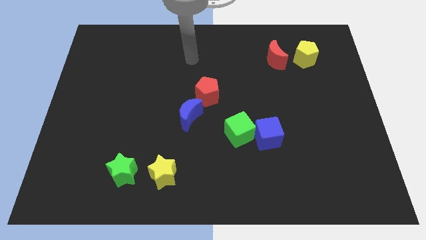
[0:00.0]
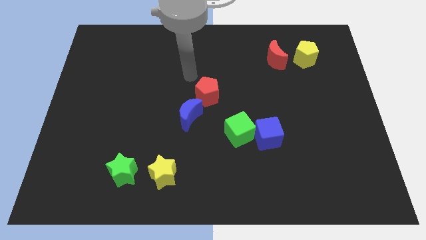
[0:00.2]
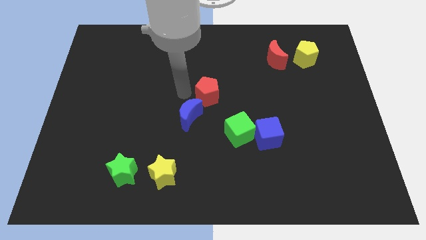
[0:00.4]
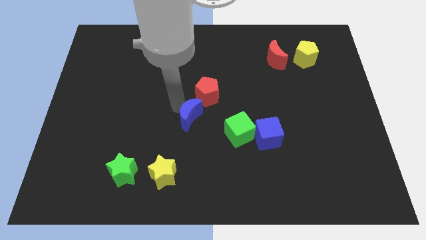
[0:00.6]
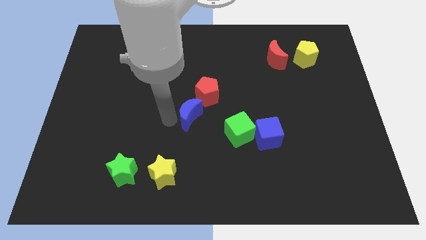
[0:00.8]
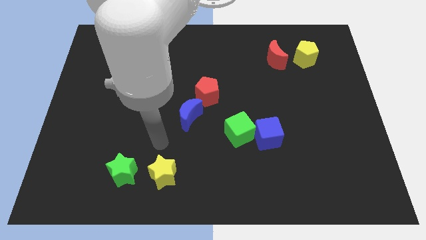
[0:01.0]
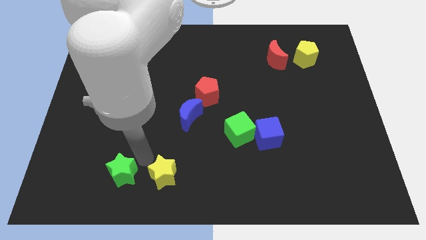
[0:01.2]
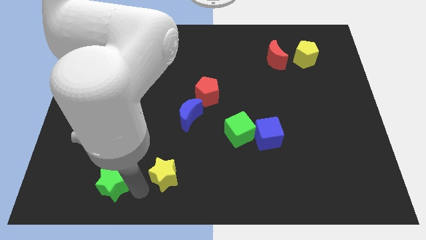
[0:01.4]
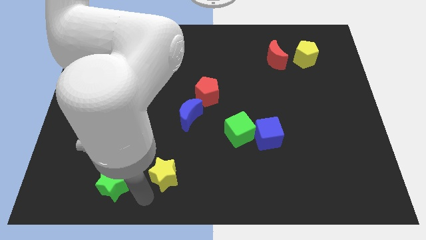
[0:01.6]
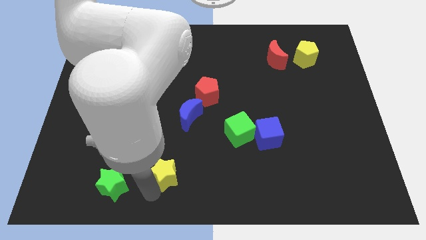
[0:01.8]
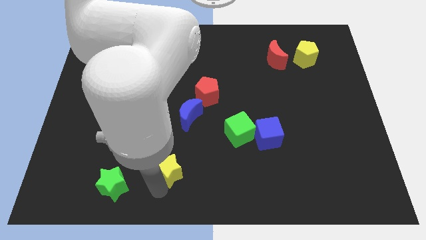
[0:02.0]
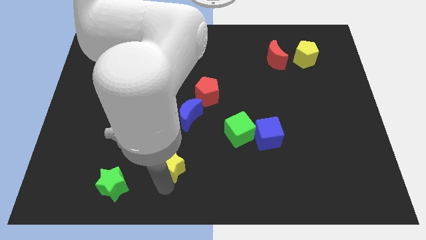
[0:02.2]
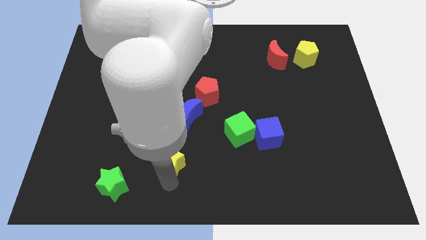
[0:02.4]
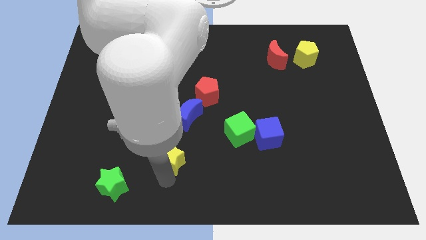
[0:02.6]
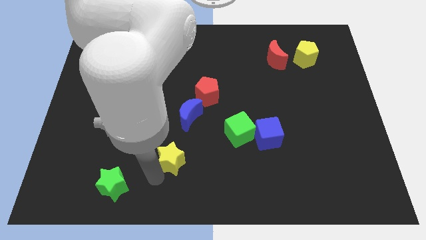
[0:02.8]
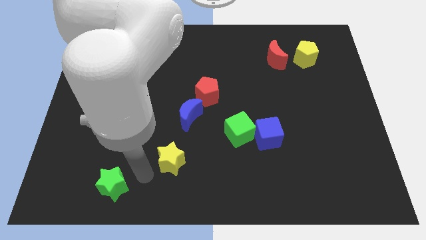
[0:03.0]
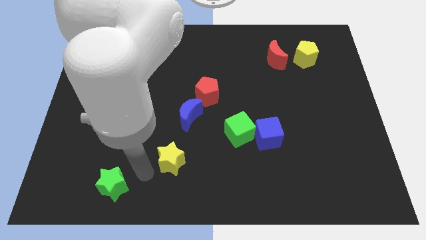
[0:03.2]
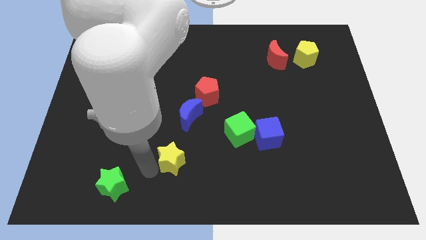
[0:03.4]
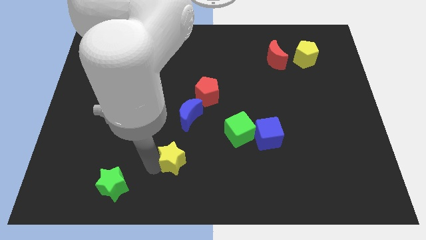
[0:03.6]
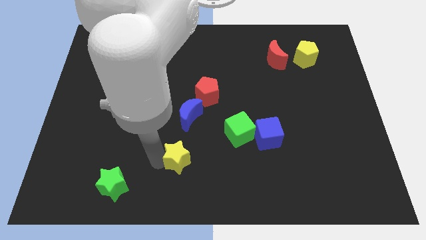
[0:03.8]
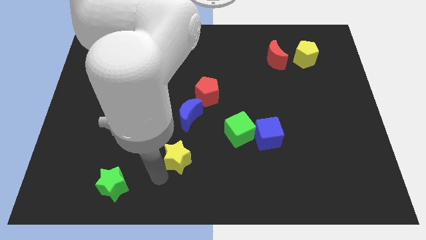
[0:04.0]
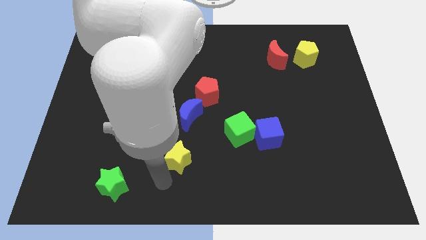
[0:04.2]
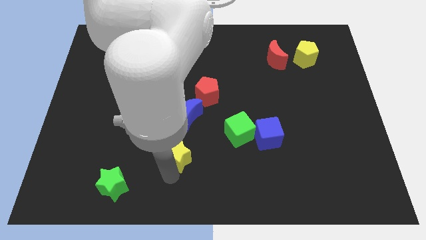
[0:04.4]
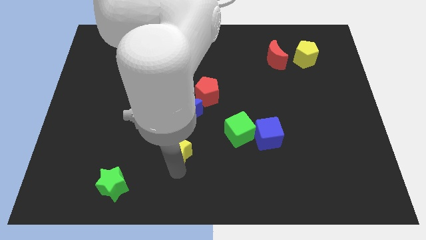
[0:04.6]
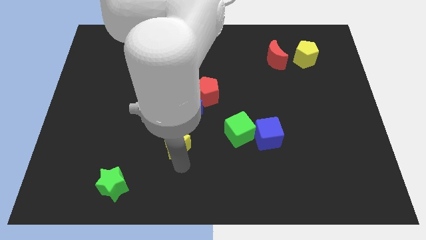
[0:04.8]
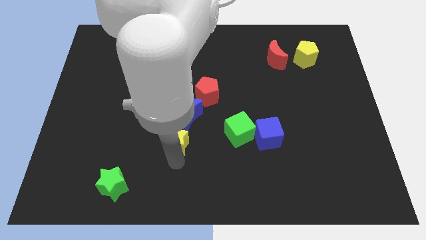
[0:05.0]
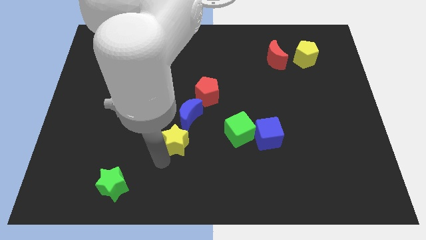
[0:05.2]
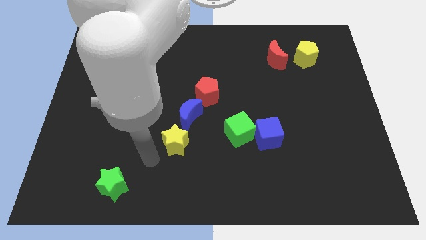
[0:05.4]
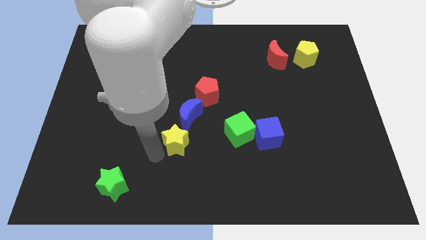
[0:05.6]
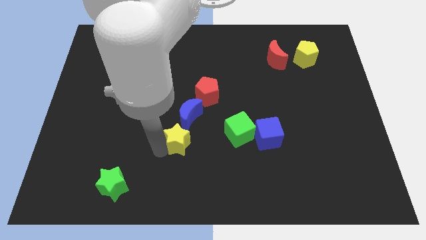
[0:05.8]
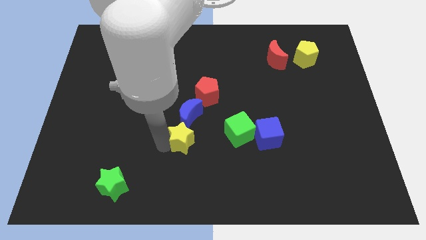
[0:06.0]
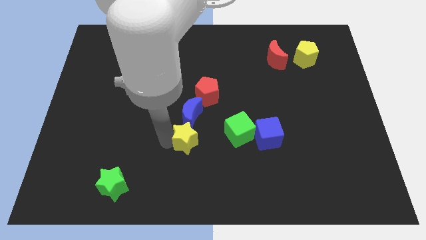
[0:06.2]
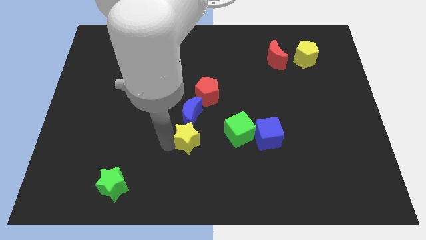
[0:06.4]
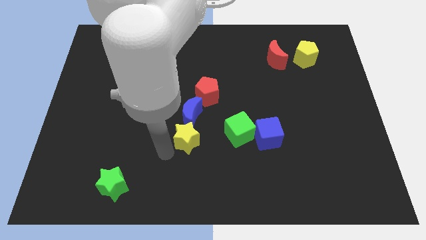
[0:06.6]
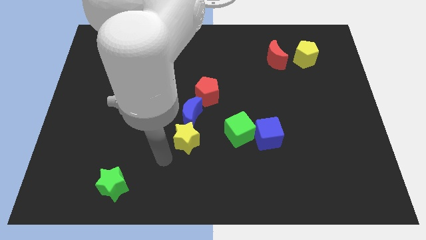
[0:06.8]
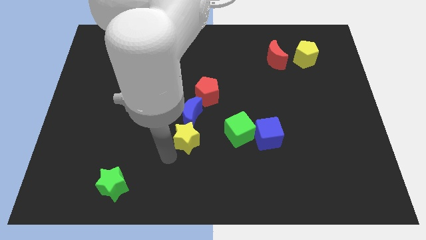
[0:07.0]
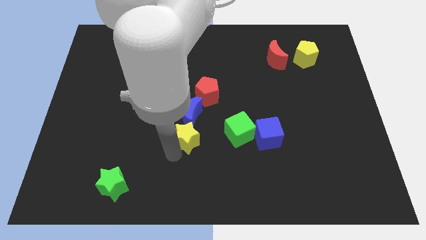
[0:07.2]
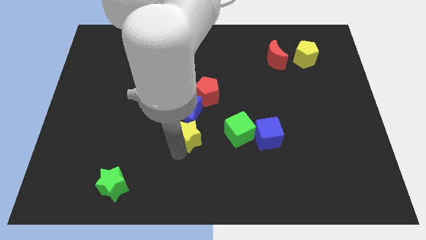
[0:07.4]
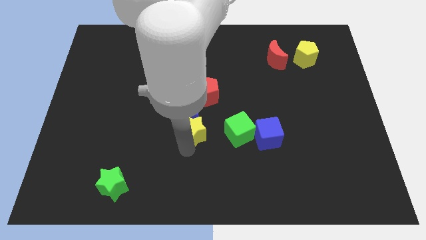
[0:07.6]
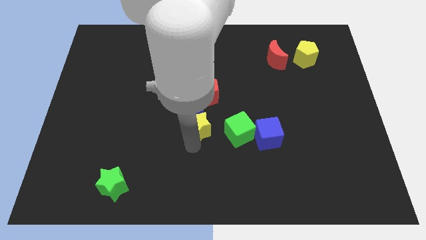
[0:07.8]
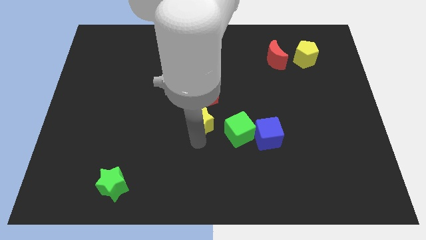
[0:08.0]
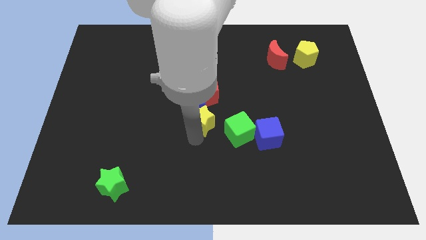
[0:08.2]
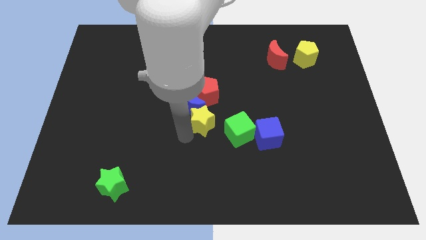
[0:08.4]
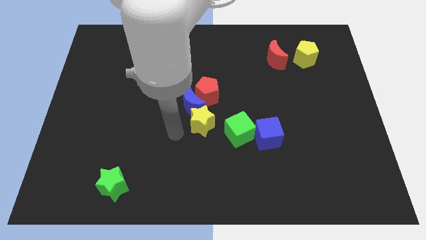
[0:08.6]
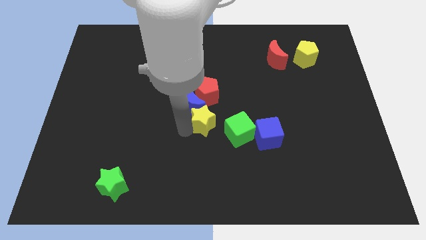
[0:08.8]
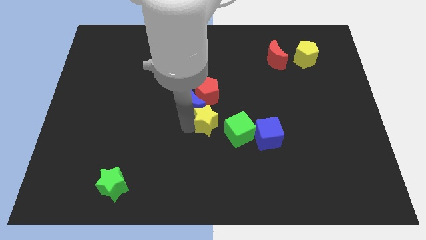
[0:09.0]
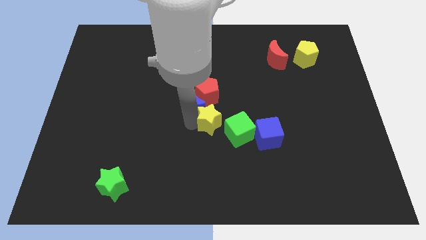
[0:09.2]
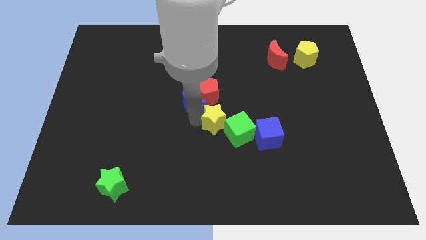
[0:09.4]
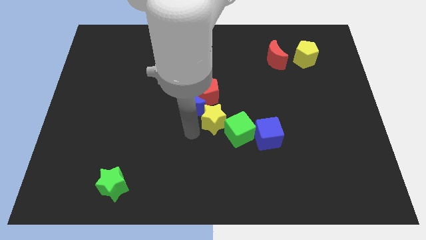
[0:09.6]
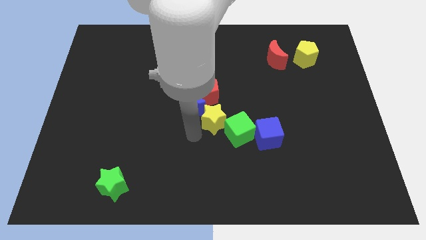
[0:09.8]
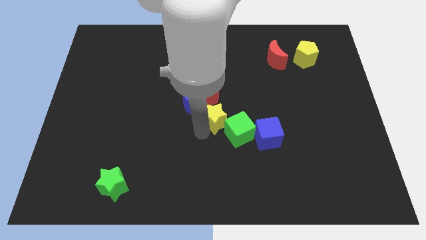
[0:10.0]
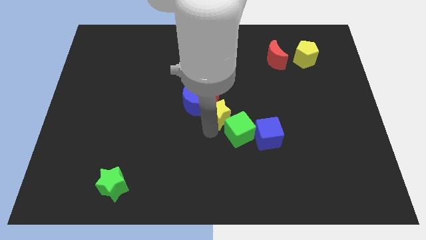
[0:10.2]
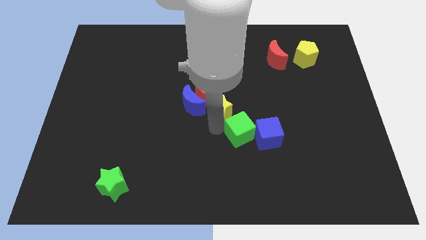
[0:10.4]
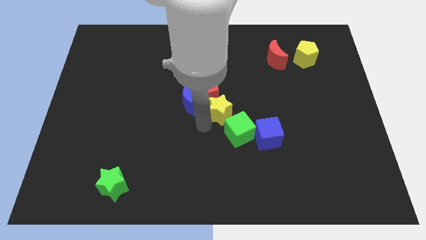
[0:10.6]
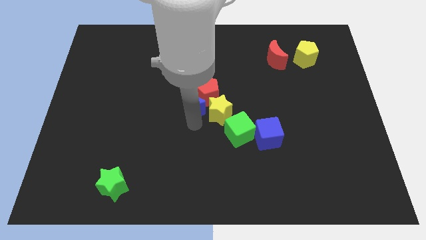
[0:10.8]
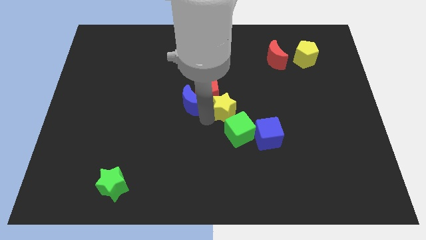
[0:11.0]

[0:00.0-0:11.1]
move the yellow star upwards and then to the right

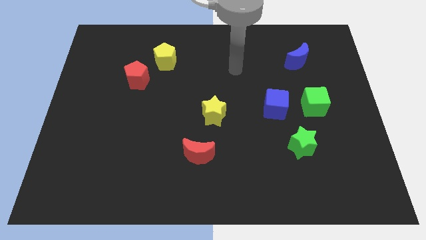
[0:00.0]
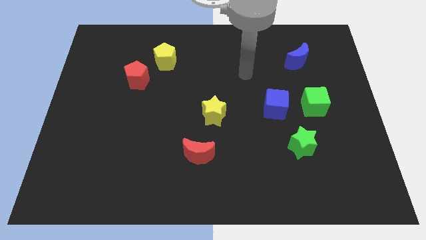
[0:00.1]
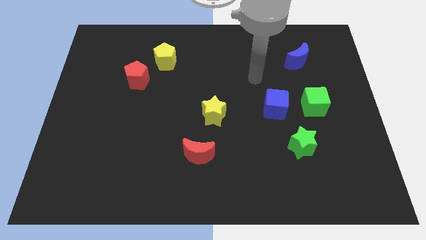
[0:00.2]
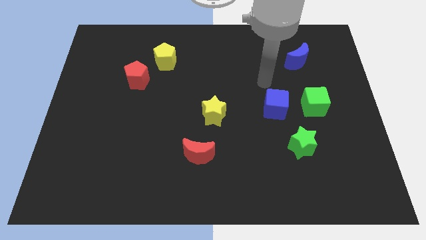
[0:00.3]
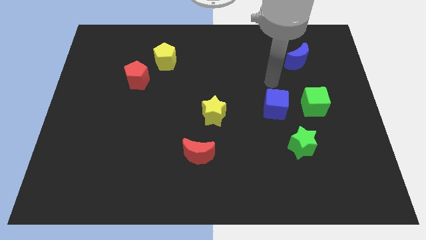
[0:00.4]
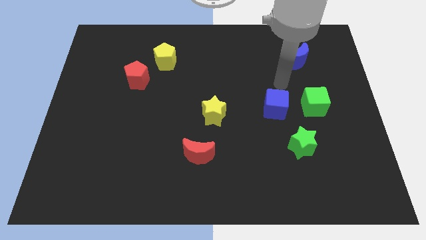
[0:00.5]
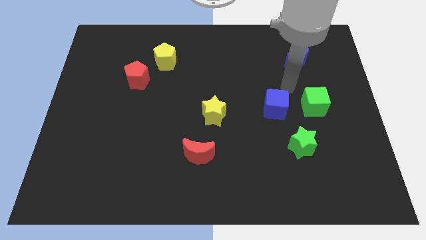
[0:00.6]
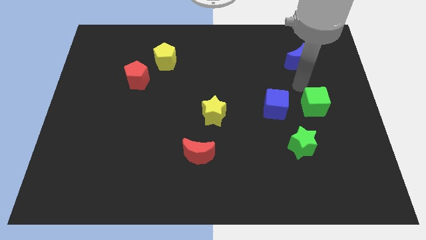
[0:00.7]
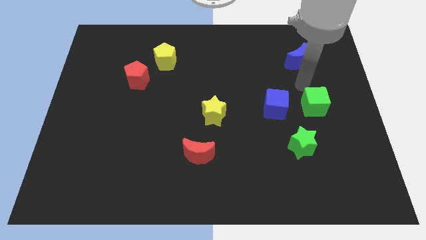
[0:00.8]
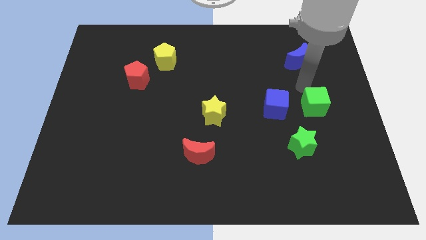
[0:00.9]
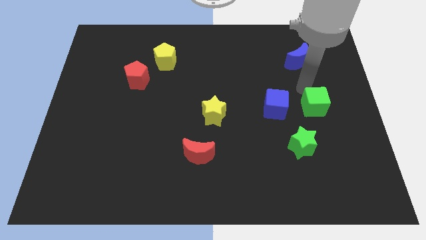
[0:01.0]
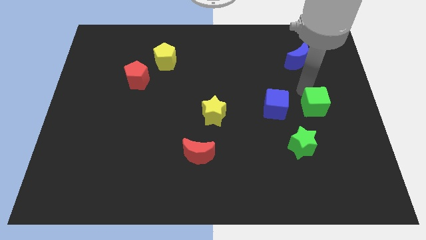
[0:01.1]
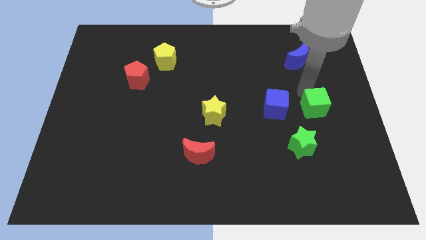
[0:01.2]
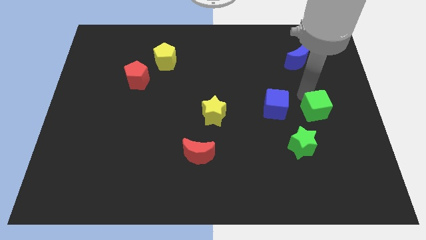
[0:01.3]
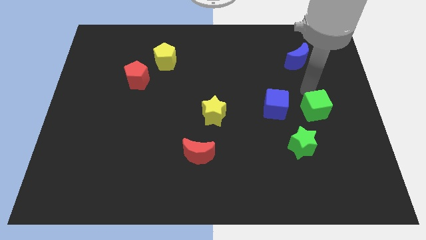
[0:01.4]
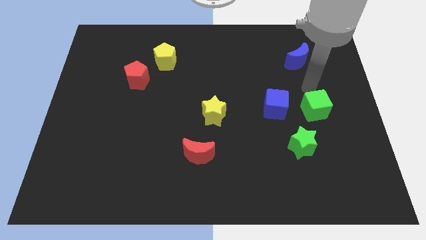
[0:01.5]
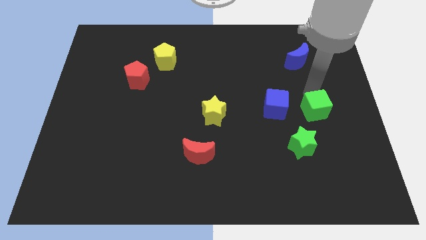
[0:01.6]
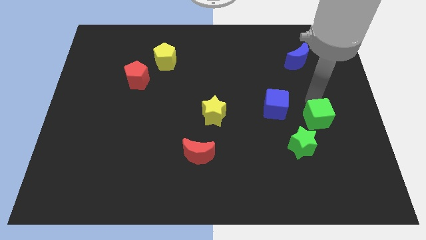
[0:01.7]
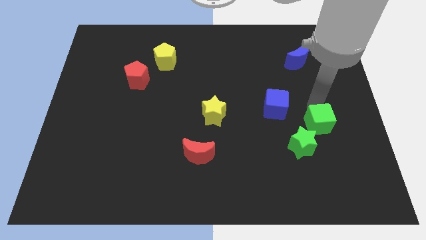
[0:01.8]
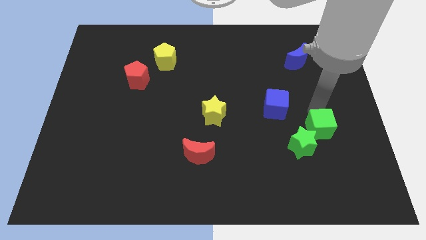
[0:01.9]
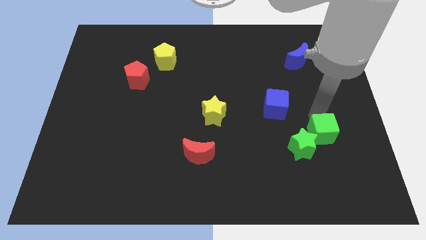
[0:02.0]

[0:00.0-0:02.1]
push the green cube downwards somewhat

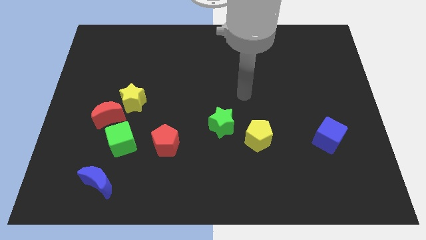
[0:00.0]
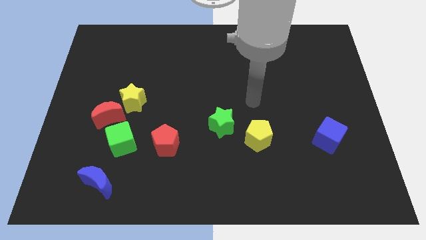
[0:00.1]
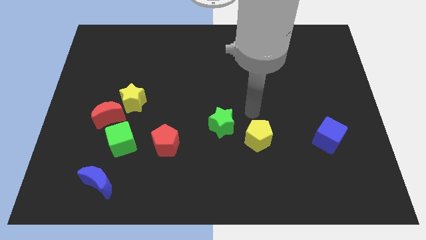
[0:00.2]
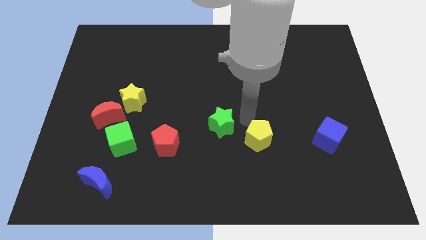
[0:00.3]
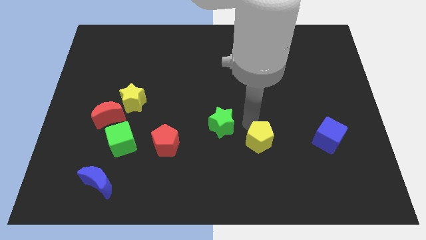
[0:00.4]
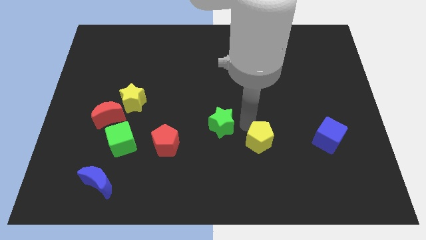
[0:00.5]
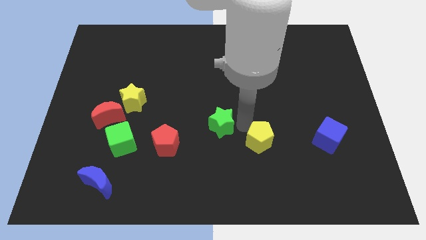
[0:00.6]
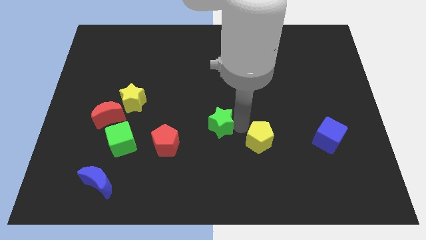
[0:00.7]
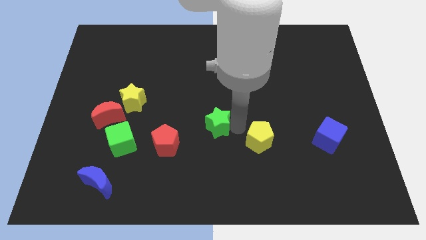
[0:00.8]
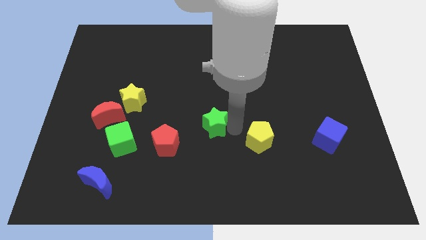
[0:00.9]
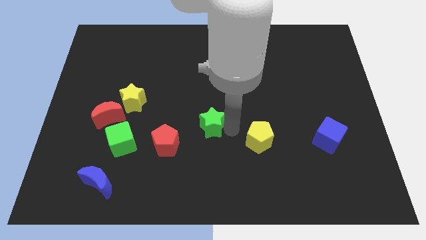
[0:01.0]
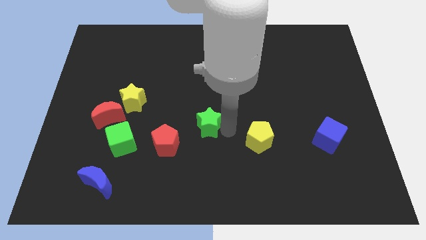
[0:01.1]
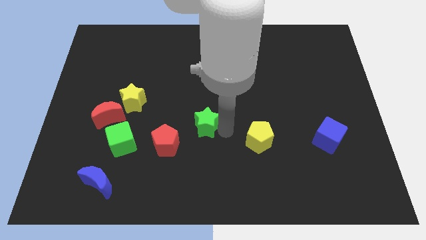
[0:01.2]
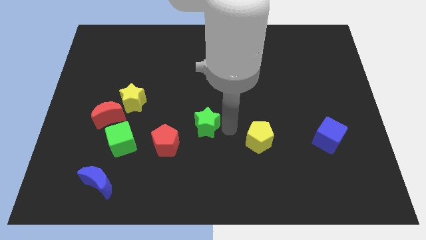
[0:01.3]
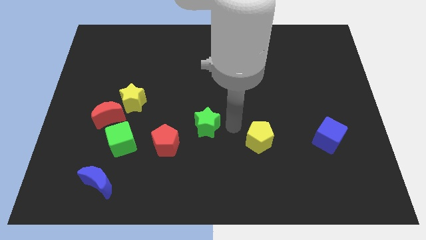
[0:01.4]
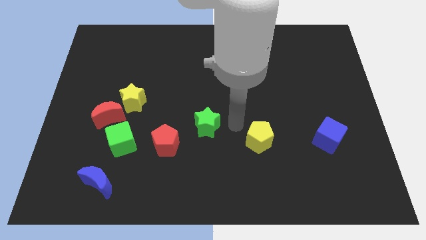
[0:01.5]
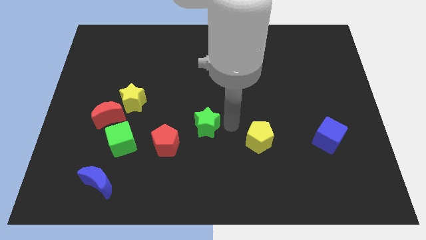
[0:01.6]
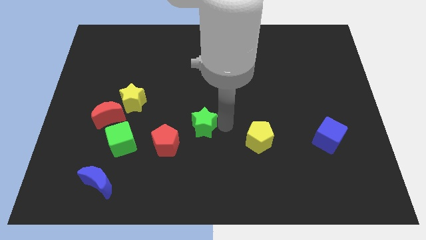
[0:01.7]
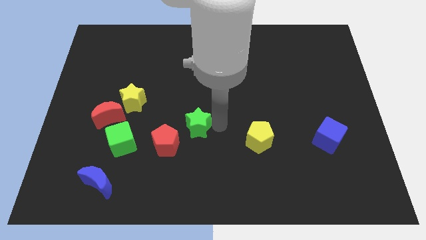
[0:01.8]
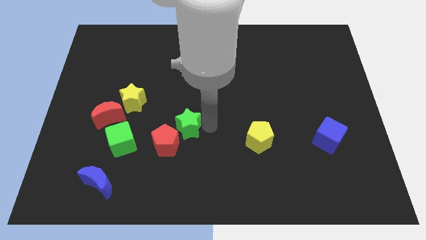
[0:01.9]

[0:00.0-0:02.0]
push the green star left a little
